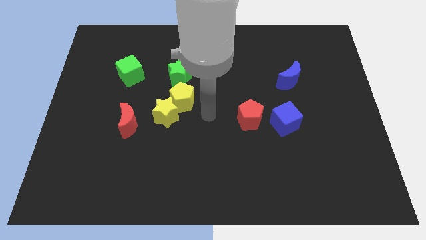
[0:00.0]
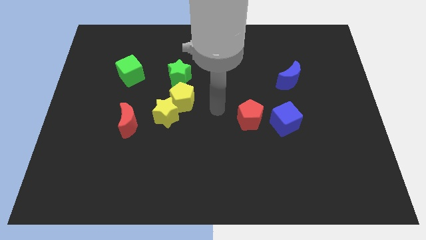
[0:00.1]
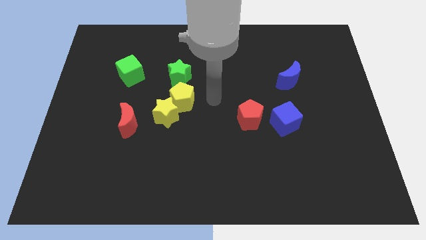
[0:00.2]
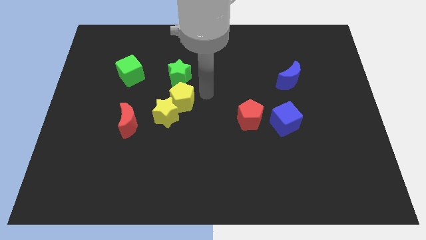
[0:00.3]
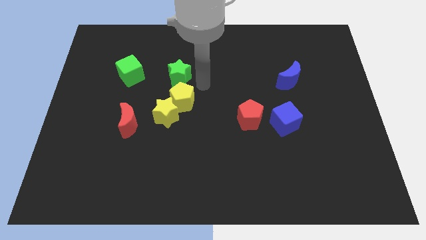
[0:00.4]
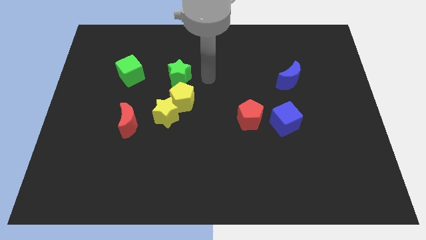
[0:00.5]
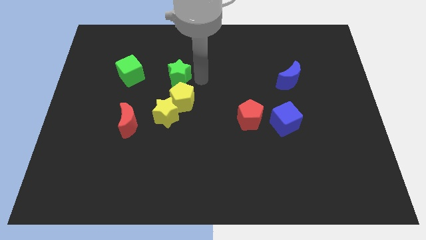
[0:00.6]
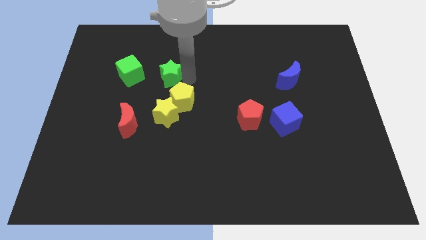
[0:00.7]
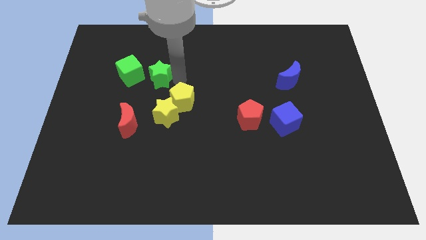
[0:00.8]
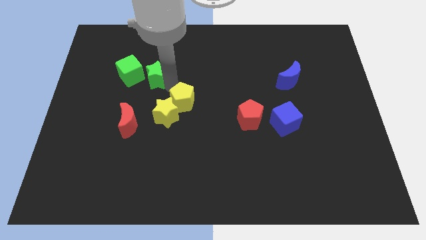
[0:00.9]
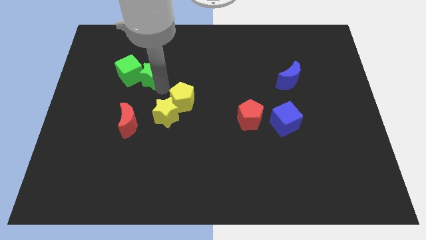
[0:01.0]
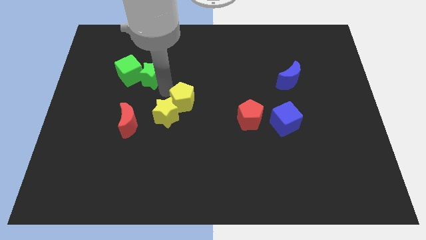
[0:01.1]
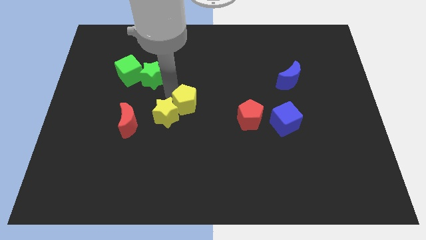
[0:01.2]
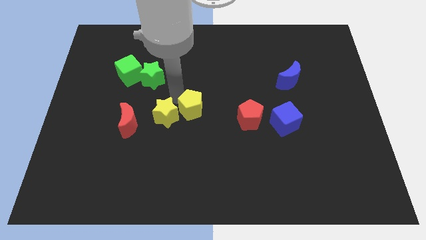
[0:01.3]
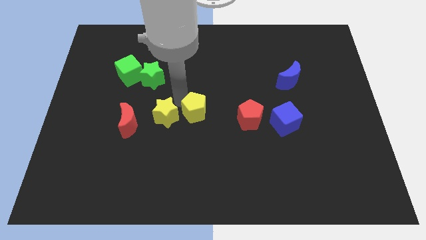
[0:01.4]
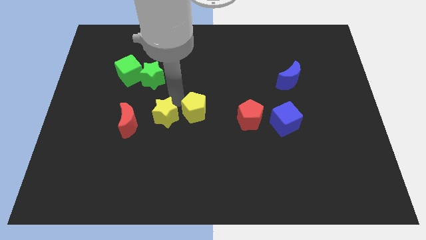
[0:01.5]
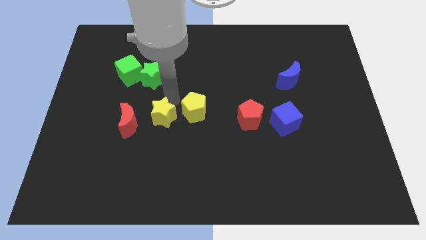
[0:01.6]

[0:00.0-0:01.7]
pull the yellow pentagon apart from the yellow star and green star

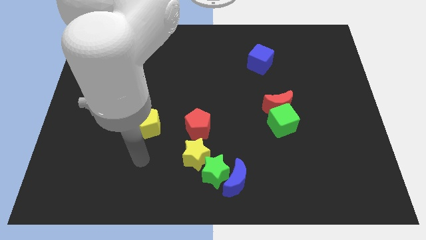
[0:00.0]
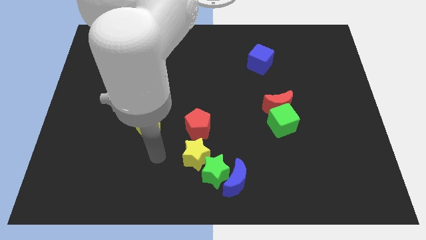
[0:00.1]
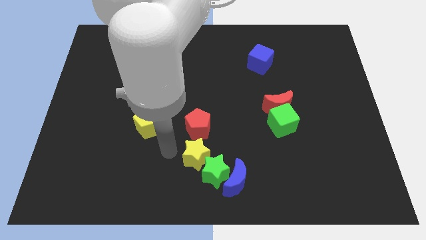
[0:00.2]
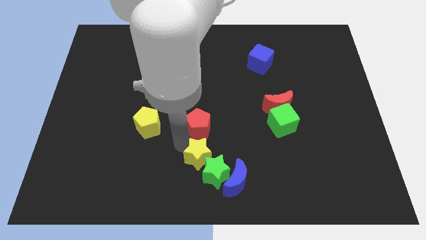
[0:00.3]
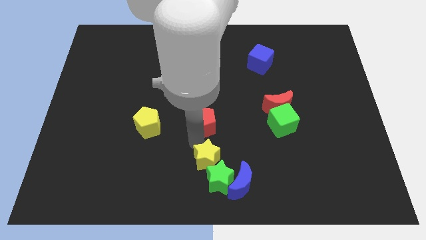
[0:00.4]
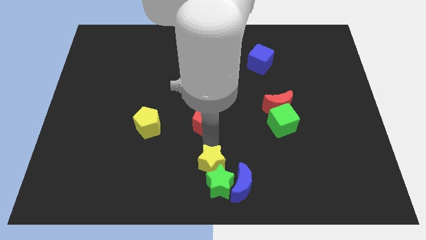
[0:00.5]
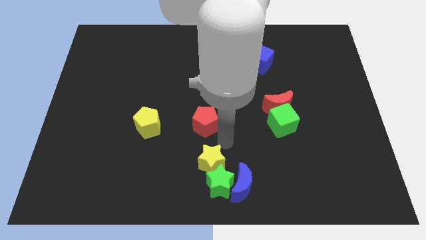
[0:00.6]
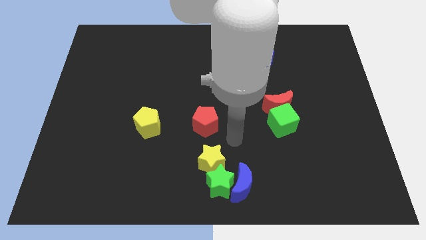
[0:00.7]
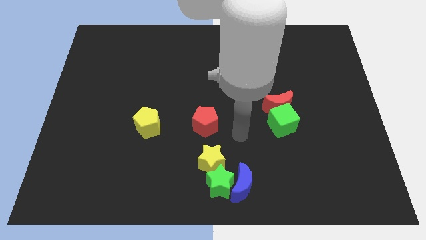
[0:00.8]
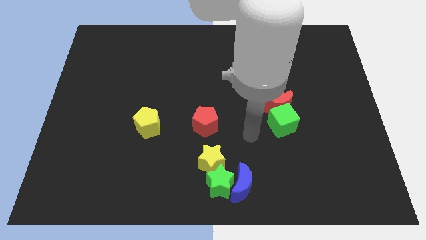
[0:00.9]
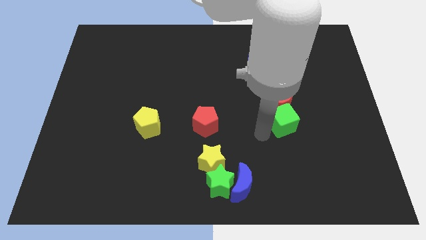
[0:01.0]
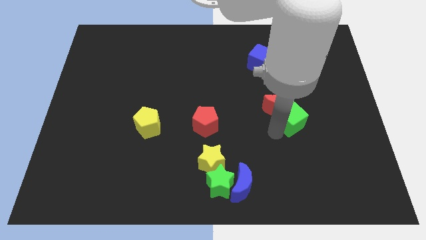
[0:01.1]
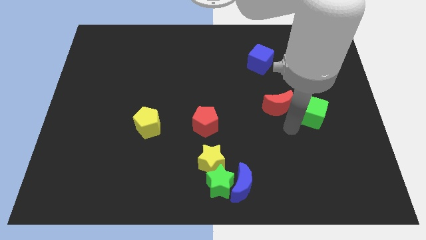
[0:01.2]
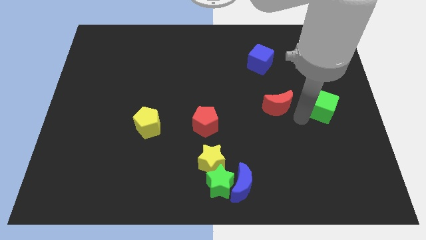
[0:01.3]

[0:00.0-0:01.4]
move the red moon away from the green cube

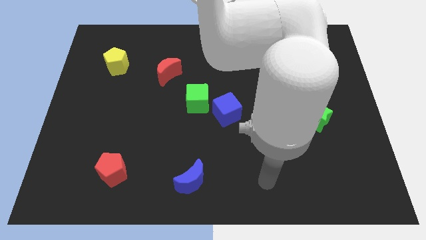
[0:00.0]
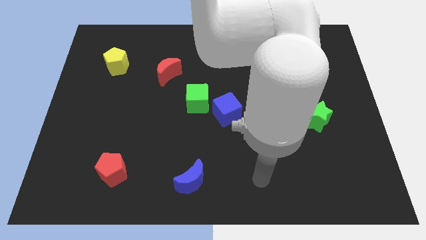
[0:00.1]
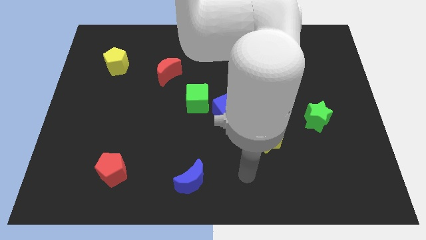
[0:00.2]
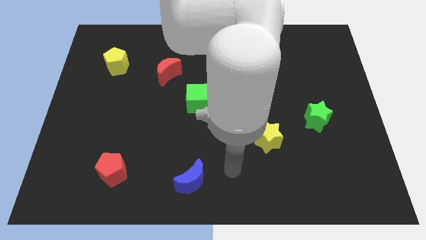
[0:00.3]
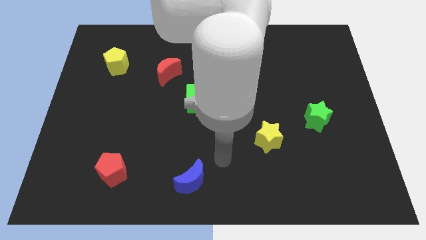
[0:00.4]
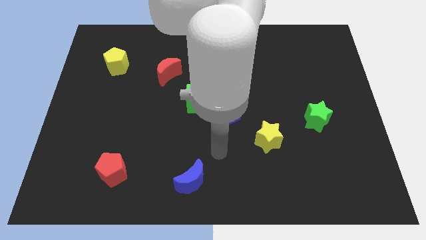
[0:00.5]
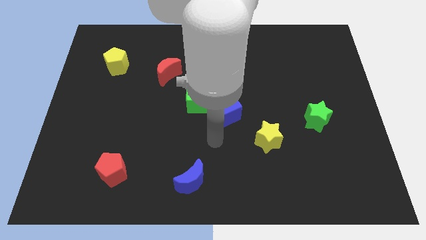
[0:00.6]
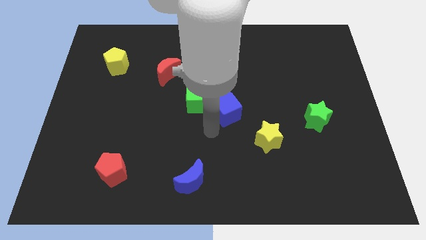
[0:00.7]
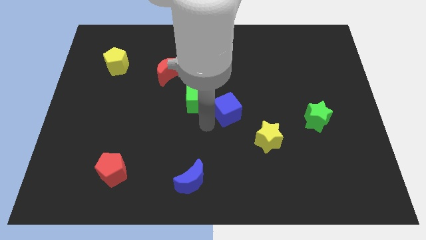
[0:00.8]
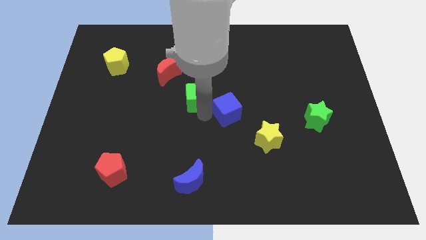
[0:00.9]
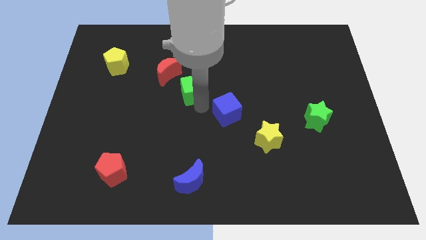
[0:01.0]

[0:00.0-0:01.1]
pull the blue cube apart from the green cube

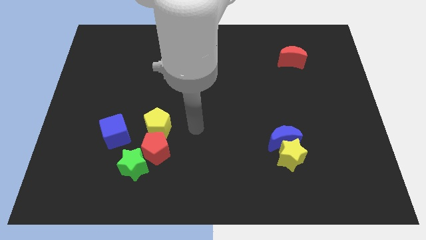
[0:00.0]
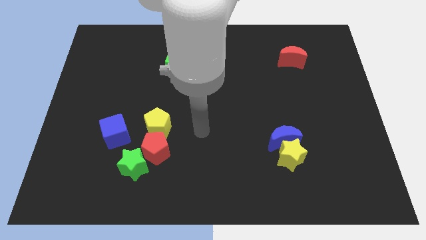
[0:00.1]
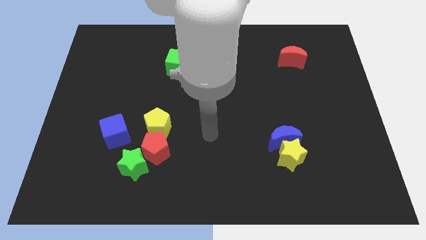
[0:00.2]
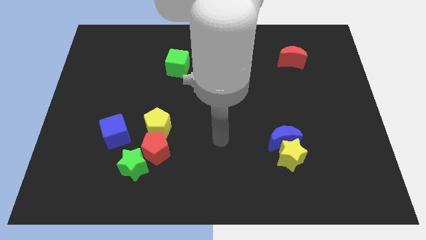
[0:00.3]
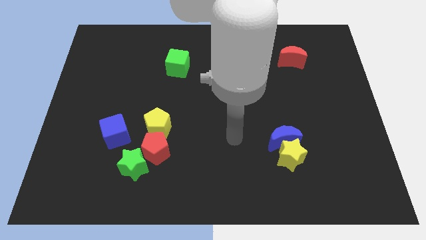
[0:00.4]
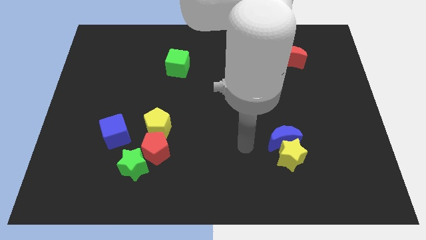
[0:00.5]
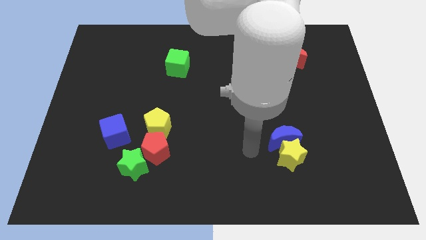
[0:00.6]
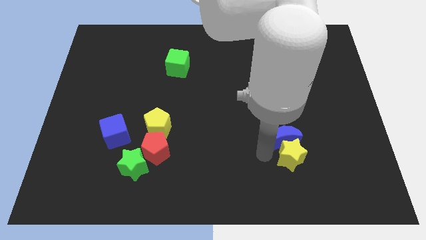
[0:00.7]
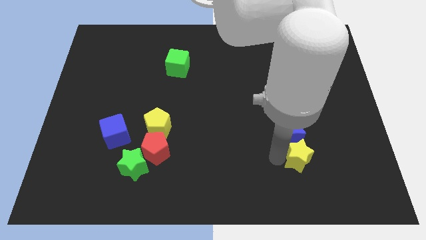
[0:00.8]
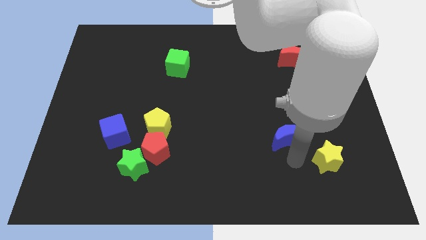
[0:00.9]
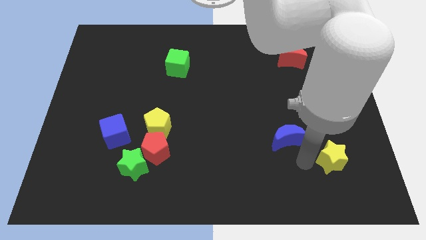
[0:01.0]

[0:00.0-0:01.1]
separate the blue moon from the yellow star

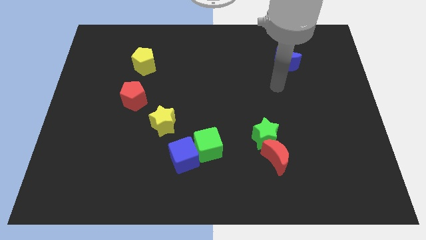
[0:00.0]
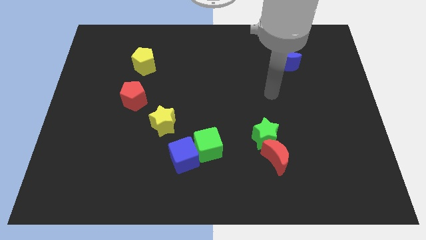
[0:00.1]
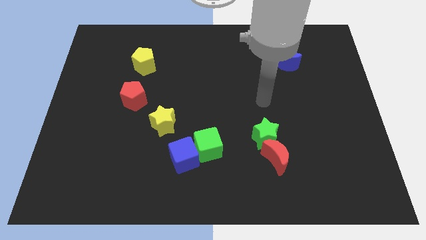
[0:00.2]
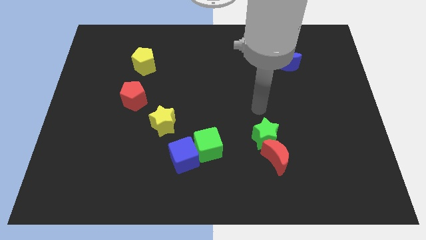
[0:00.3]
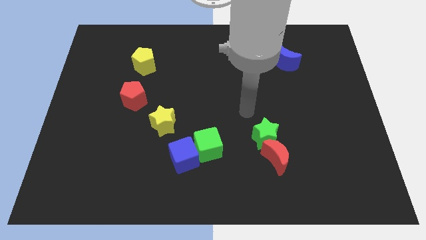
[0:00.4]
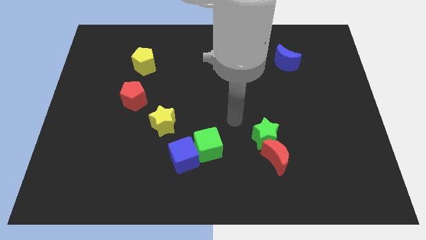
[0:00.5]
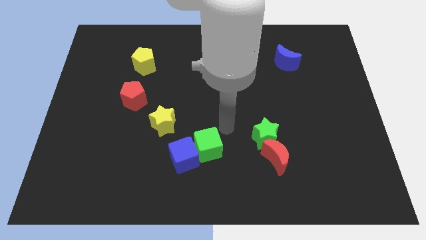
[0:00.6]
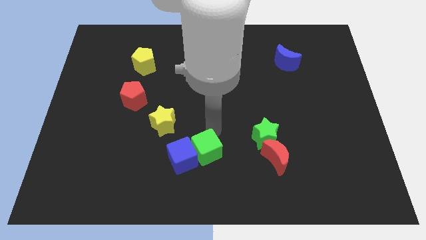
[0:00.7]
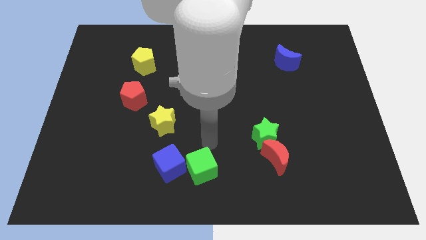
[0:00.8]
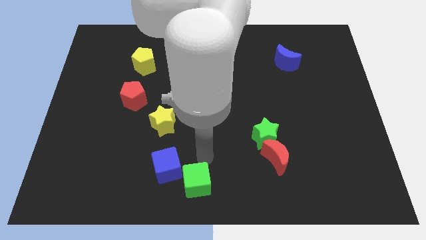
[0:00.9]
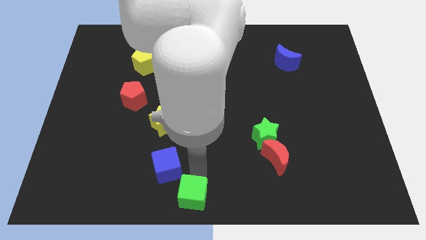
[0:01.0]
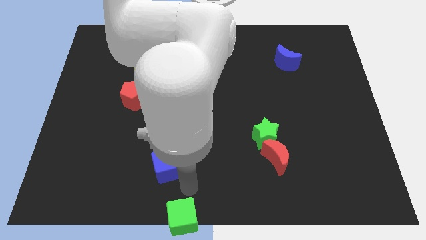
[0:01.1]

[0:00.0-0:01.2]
move the blue cube away from the green cube

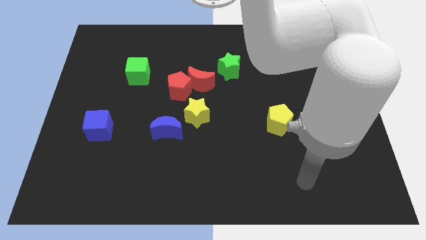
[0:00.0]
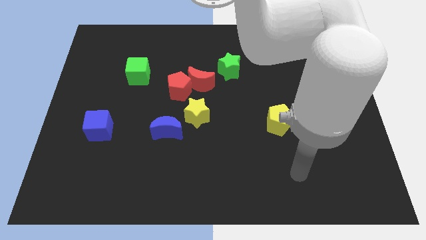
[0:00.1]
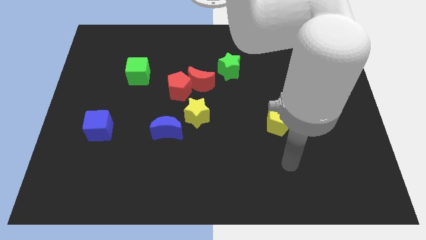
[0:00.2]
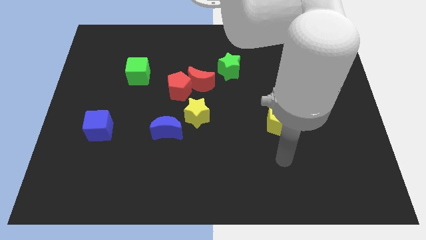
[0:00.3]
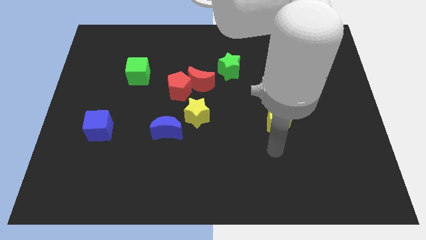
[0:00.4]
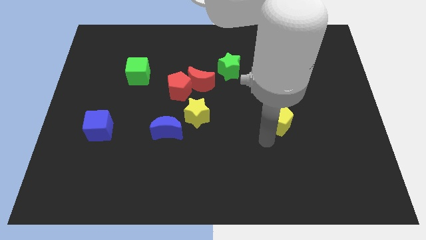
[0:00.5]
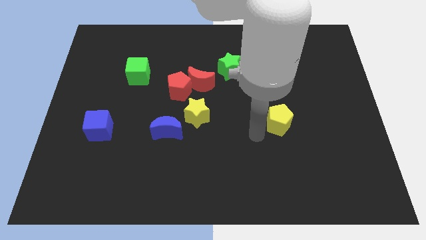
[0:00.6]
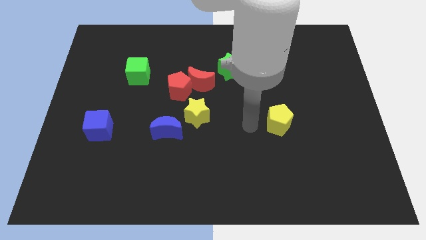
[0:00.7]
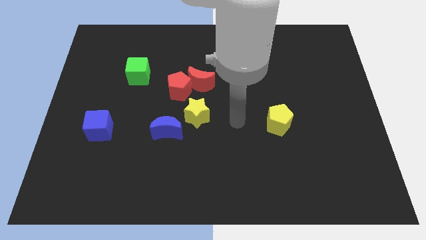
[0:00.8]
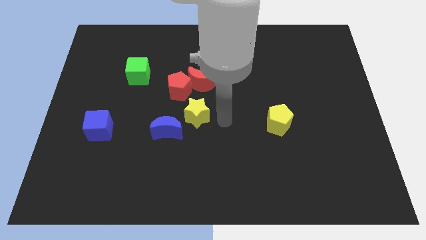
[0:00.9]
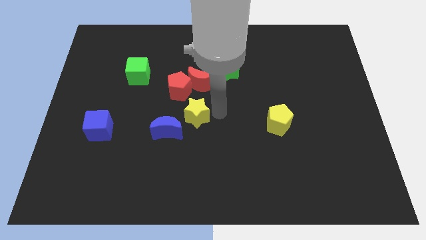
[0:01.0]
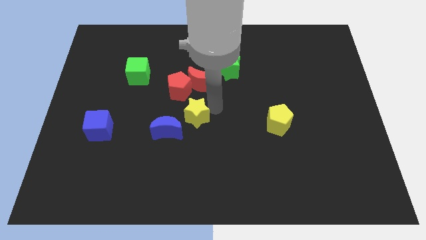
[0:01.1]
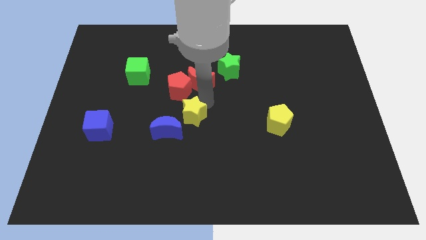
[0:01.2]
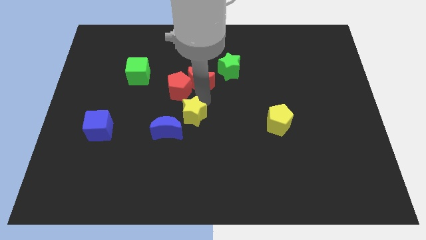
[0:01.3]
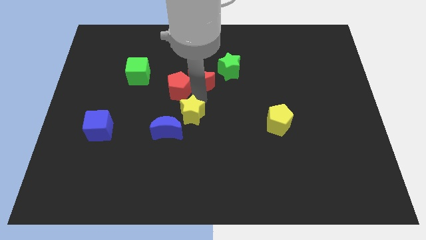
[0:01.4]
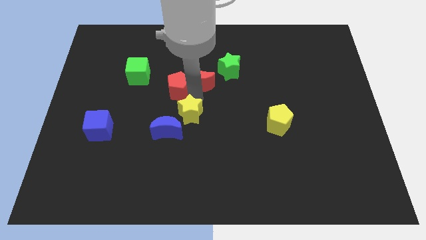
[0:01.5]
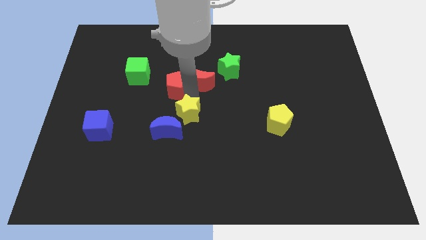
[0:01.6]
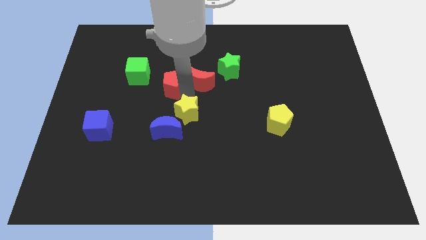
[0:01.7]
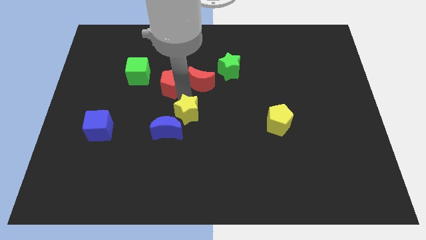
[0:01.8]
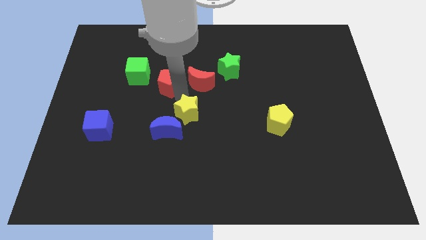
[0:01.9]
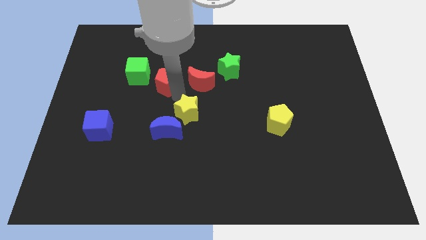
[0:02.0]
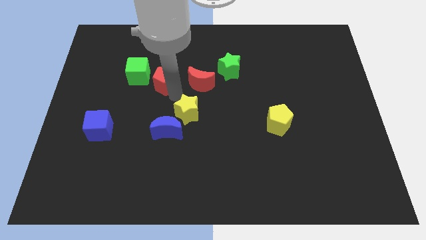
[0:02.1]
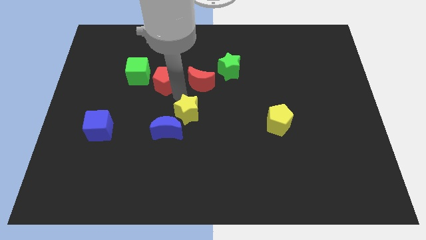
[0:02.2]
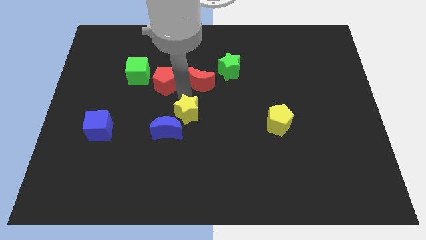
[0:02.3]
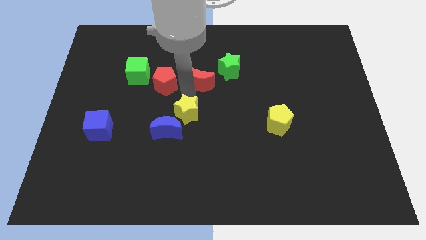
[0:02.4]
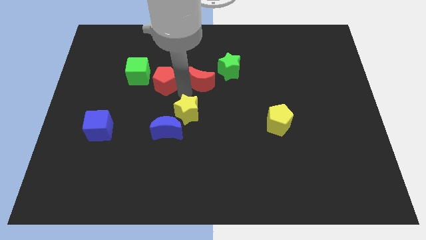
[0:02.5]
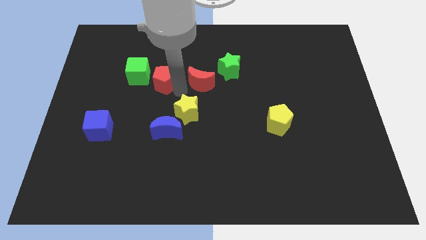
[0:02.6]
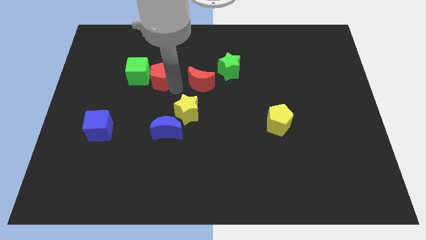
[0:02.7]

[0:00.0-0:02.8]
pull the red pentagon apart from the red moon and yellow star
